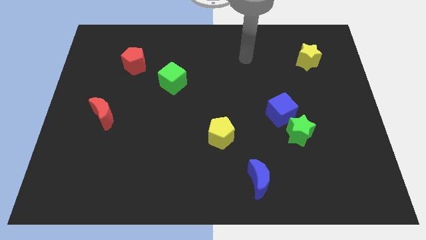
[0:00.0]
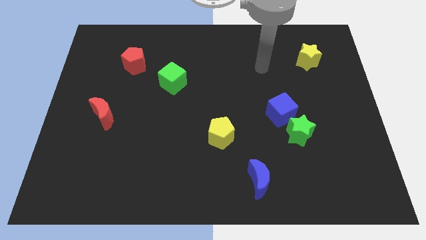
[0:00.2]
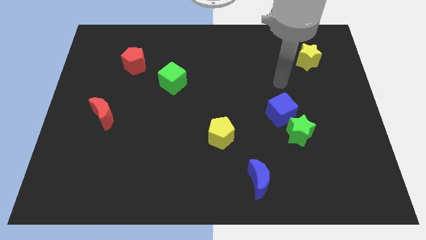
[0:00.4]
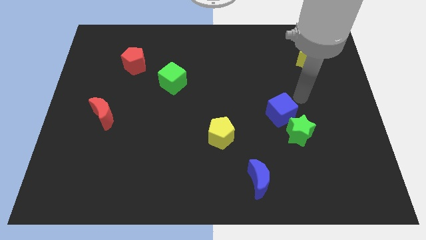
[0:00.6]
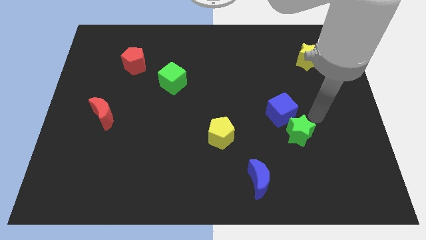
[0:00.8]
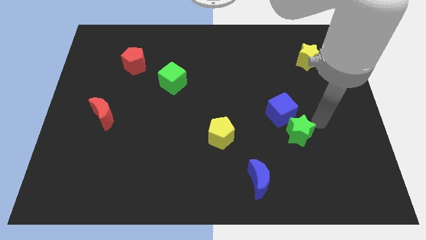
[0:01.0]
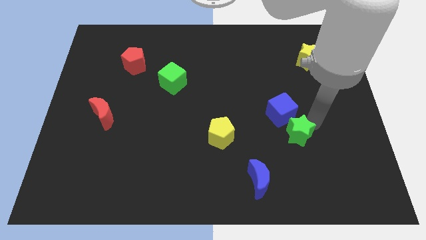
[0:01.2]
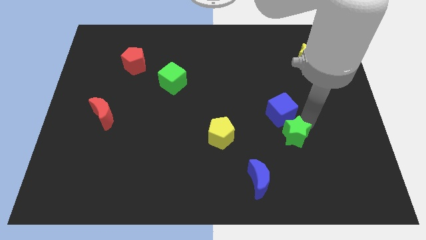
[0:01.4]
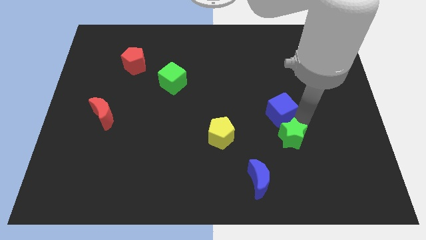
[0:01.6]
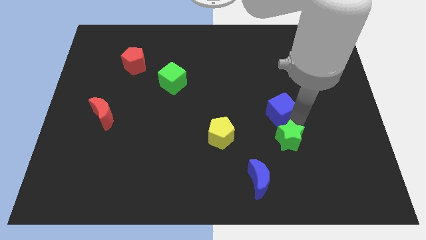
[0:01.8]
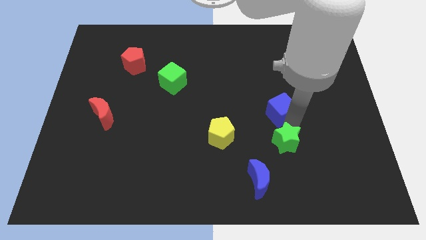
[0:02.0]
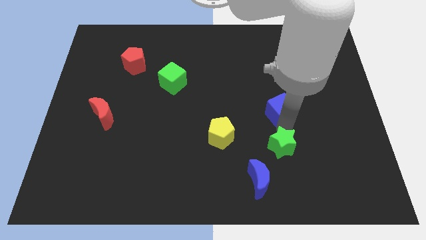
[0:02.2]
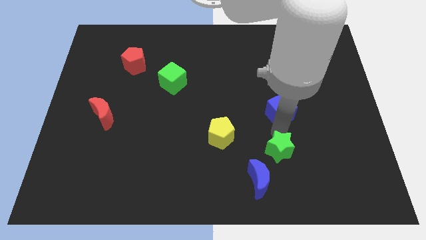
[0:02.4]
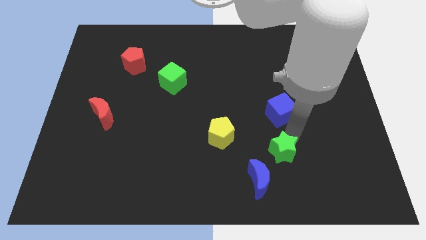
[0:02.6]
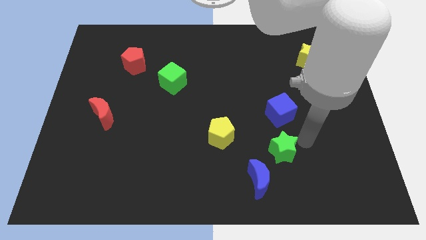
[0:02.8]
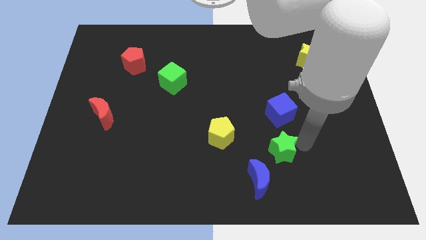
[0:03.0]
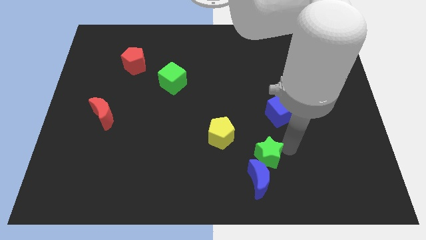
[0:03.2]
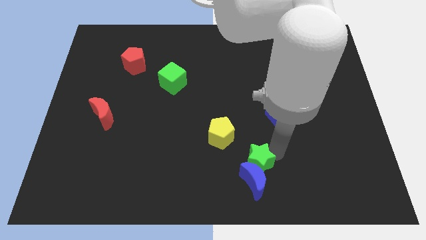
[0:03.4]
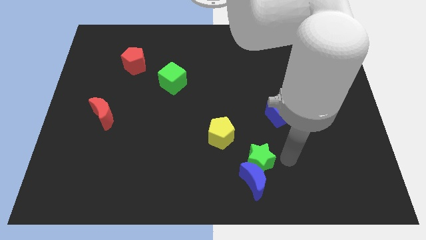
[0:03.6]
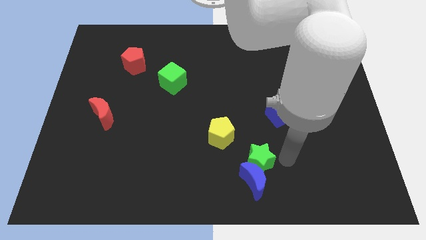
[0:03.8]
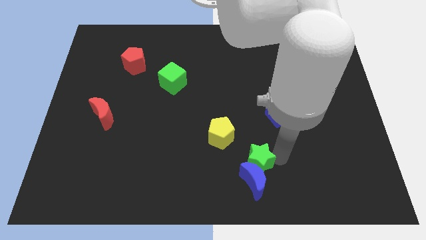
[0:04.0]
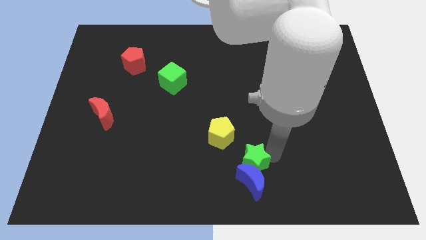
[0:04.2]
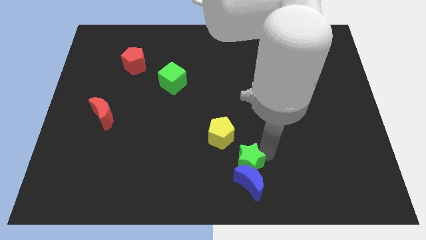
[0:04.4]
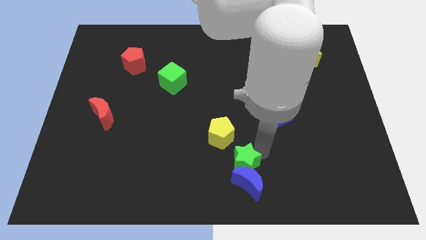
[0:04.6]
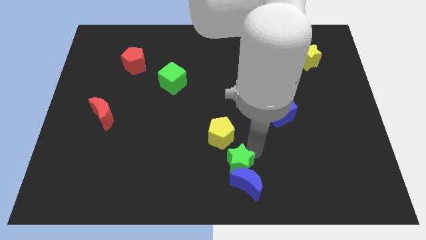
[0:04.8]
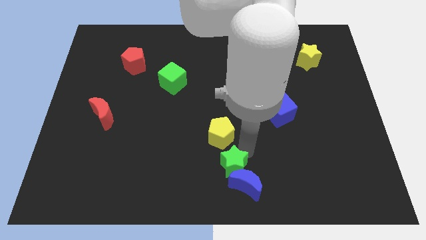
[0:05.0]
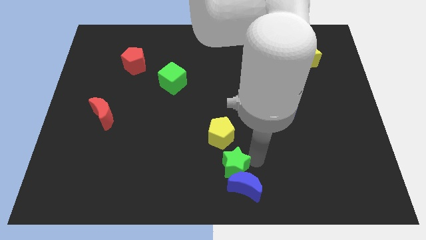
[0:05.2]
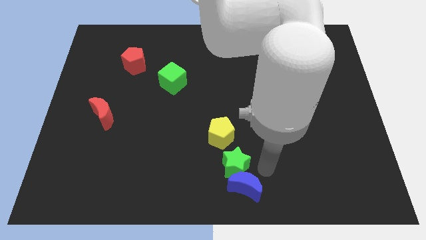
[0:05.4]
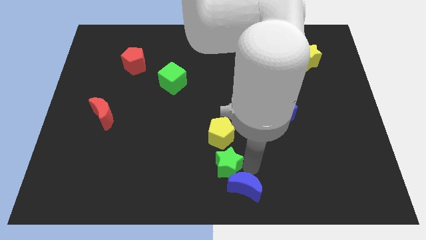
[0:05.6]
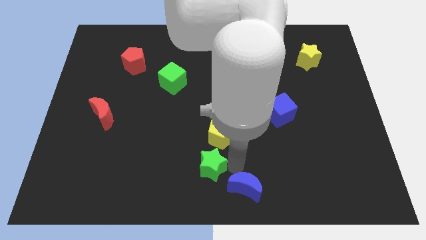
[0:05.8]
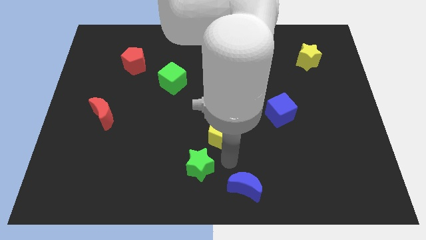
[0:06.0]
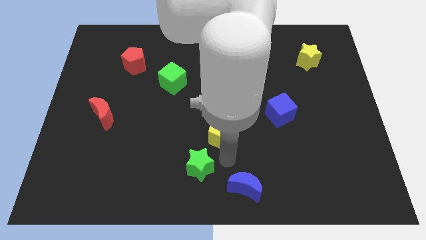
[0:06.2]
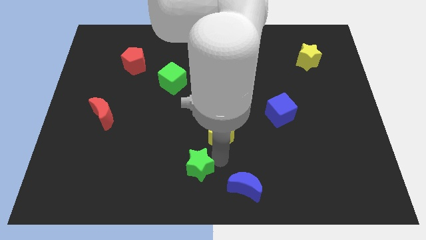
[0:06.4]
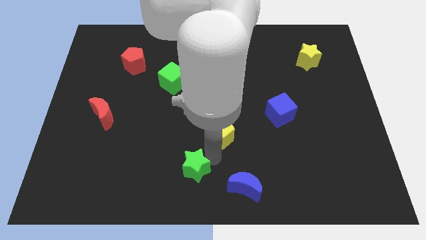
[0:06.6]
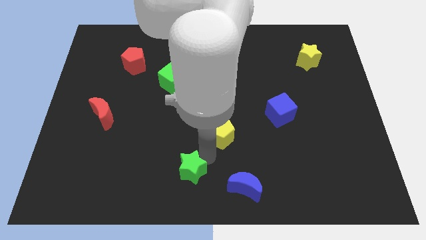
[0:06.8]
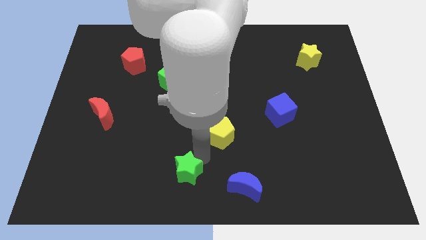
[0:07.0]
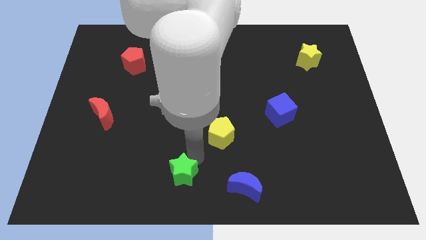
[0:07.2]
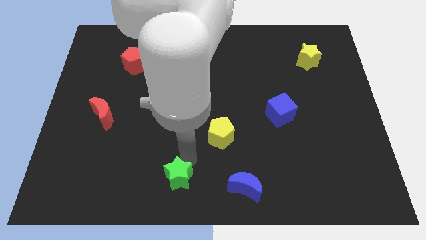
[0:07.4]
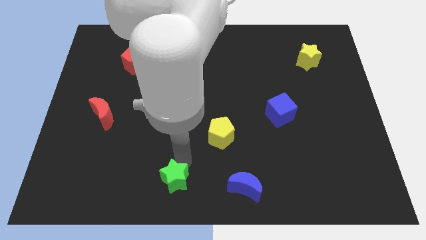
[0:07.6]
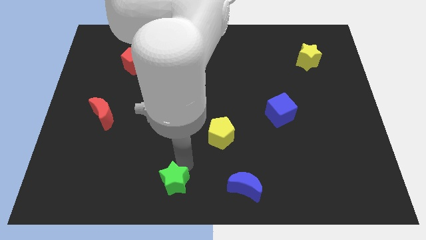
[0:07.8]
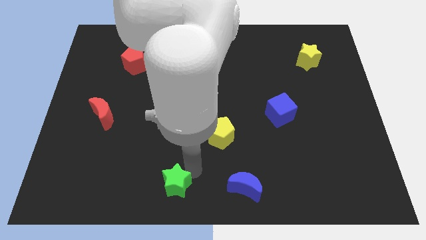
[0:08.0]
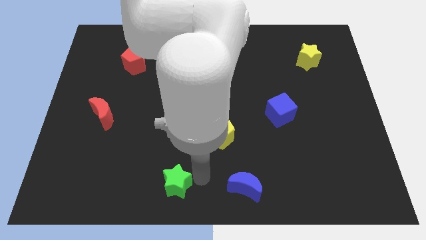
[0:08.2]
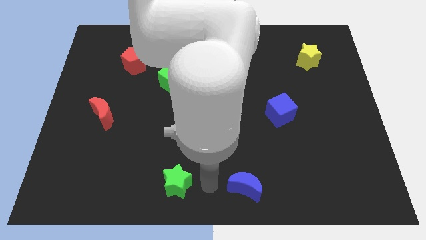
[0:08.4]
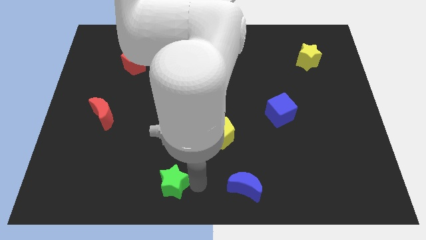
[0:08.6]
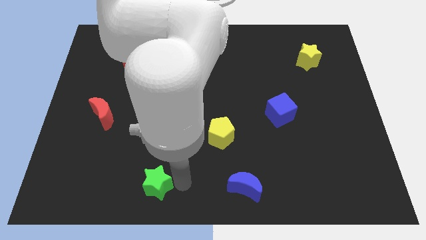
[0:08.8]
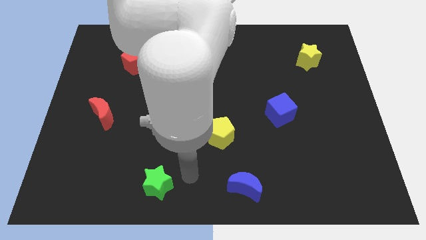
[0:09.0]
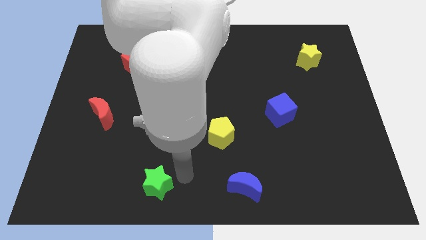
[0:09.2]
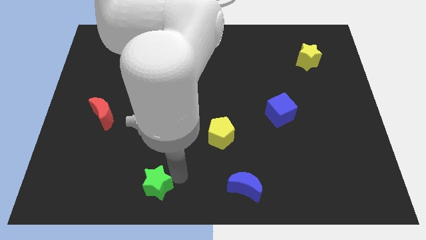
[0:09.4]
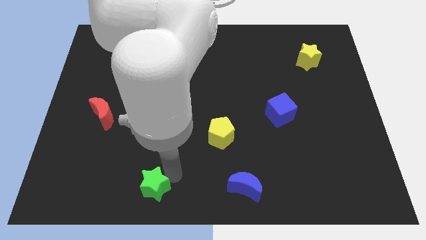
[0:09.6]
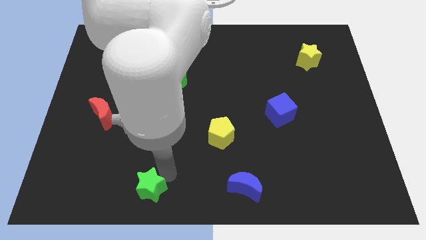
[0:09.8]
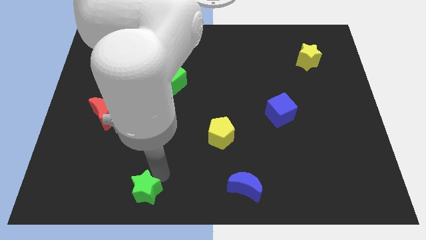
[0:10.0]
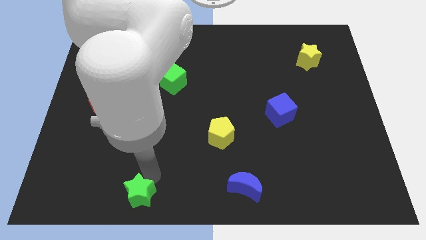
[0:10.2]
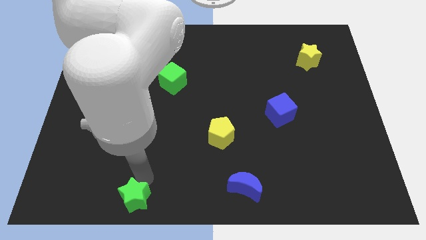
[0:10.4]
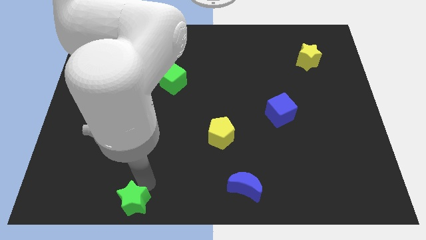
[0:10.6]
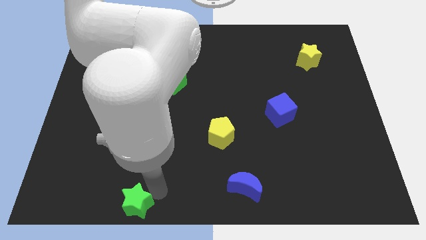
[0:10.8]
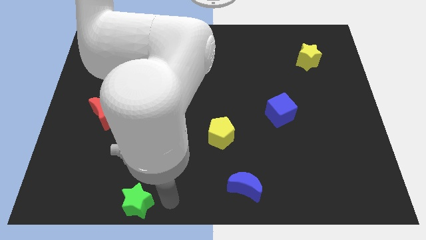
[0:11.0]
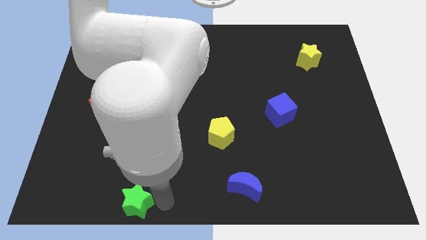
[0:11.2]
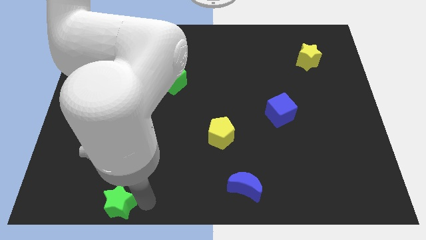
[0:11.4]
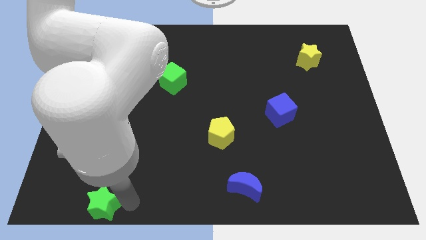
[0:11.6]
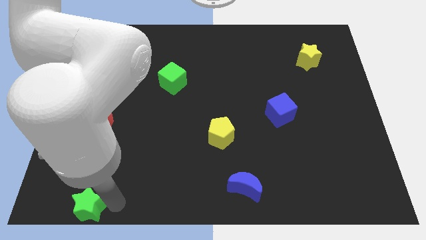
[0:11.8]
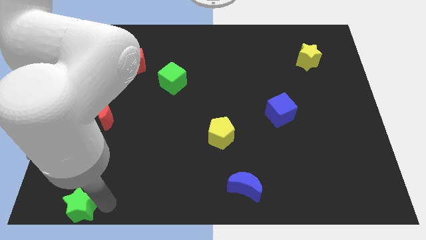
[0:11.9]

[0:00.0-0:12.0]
move the green star to the bottom left of the board
